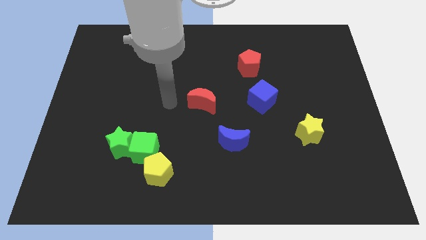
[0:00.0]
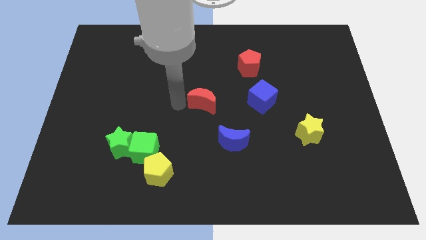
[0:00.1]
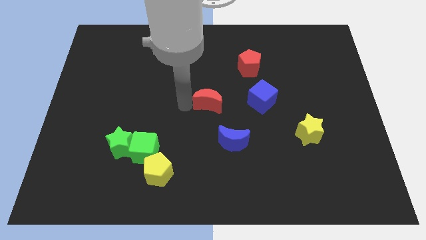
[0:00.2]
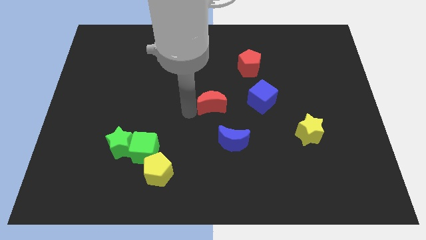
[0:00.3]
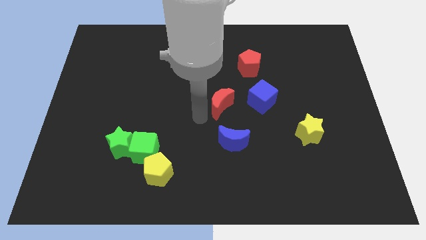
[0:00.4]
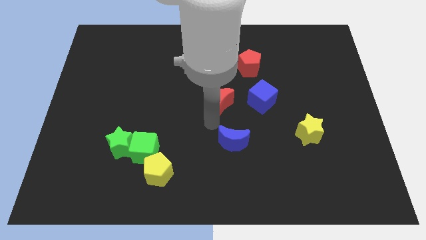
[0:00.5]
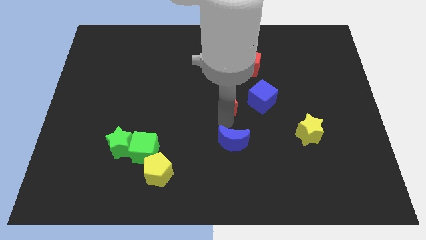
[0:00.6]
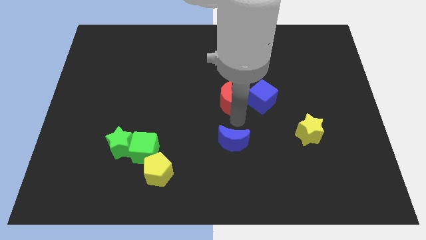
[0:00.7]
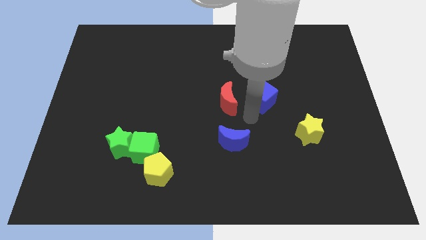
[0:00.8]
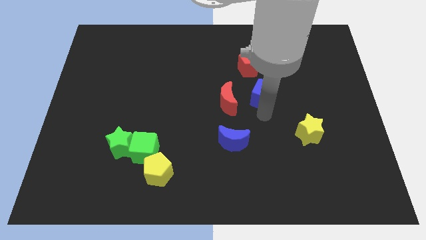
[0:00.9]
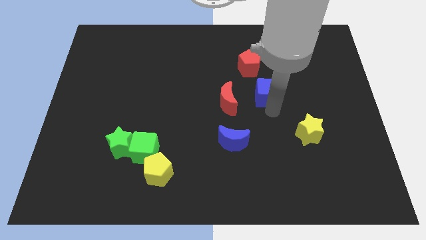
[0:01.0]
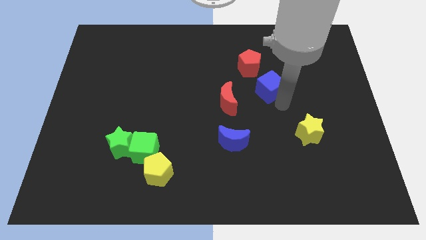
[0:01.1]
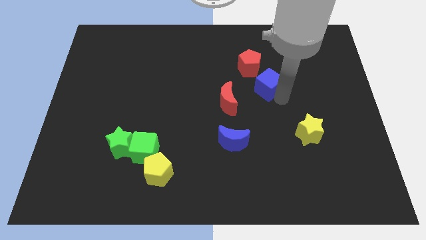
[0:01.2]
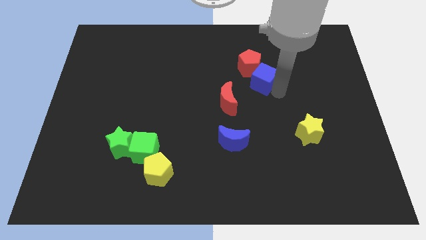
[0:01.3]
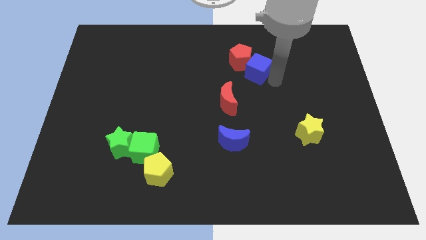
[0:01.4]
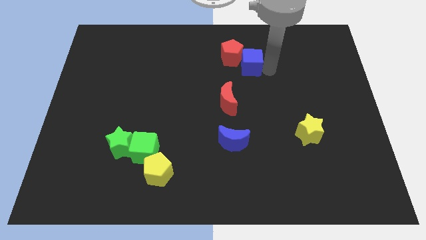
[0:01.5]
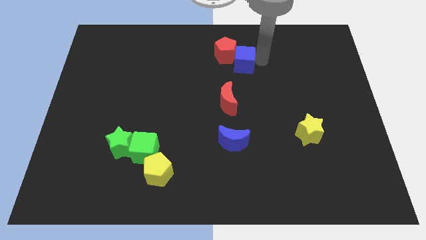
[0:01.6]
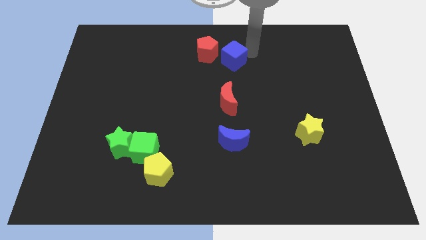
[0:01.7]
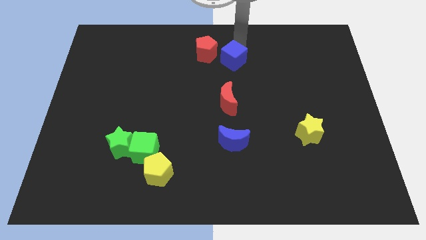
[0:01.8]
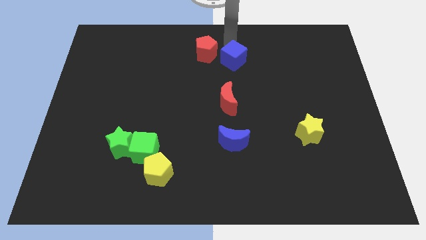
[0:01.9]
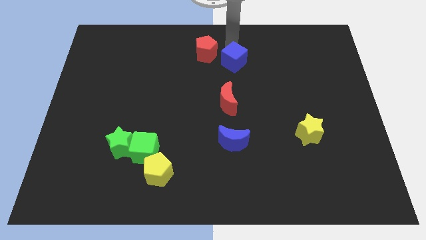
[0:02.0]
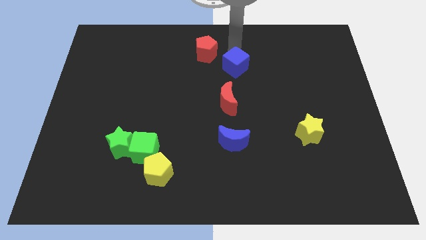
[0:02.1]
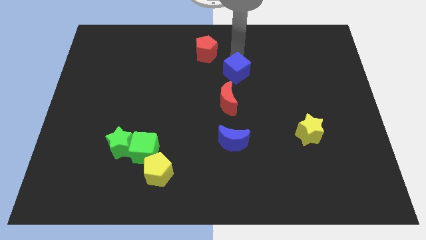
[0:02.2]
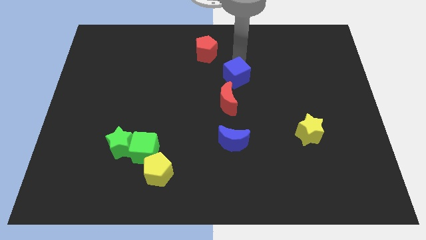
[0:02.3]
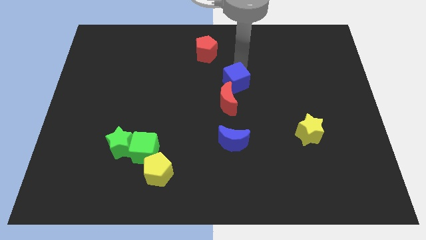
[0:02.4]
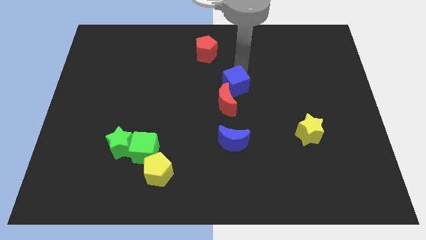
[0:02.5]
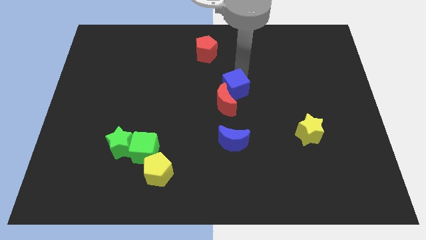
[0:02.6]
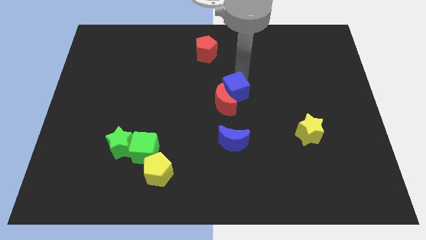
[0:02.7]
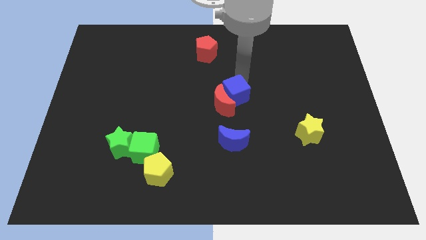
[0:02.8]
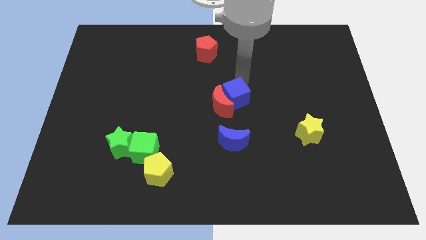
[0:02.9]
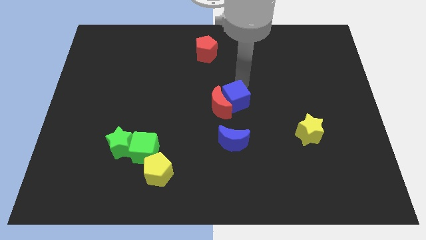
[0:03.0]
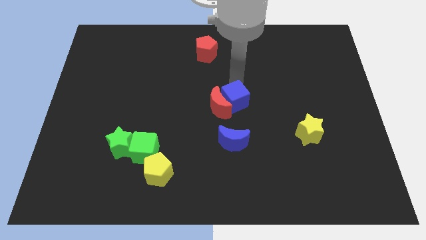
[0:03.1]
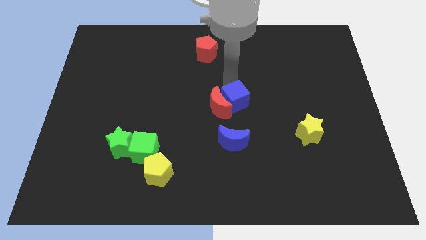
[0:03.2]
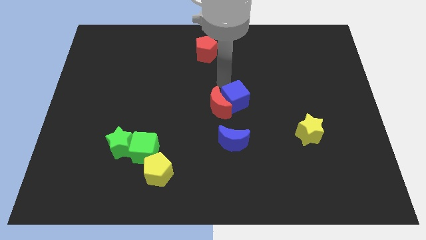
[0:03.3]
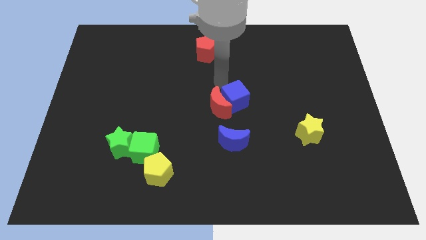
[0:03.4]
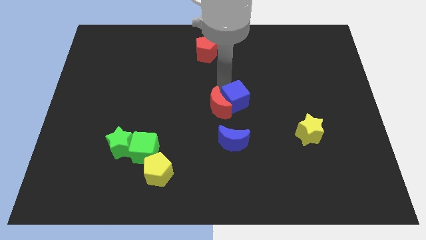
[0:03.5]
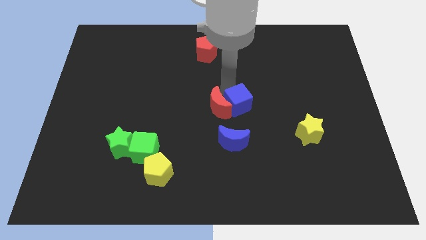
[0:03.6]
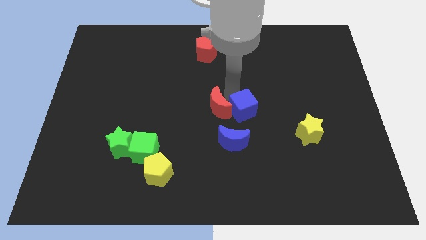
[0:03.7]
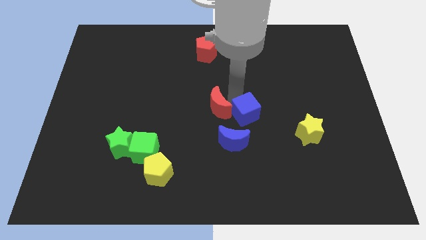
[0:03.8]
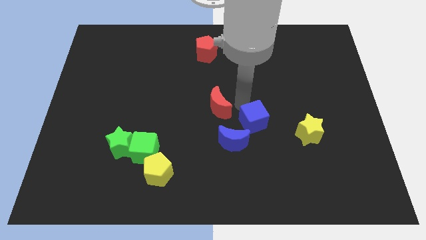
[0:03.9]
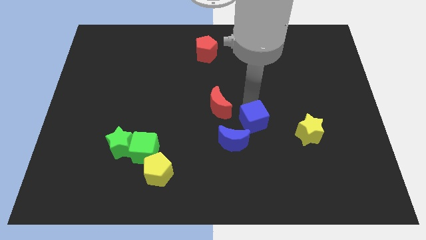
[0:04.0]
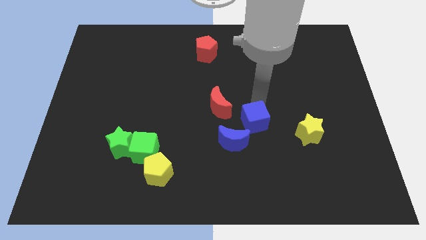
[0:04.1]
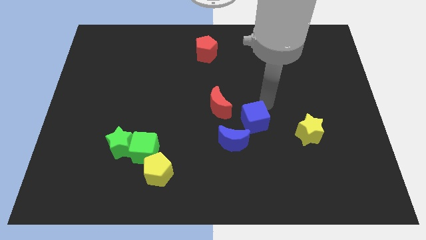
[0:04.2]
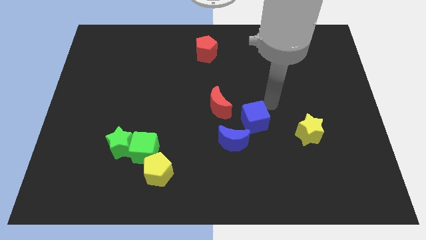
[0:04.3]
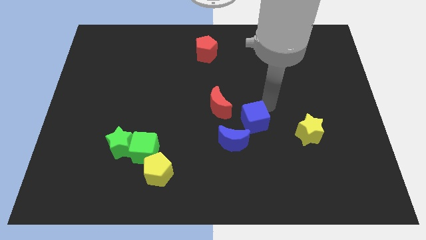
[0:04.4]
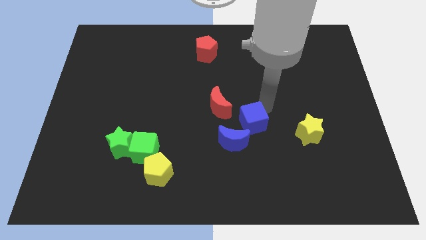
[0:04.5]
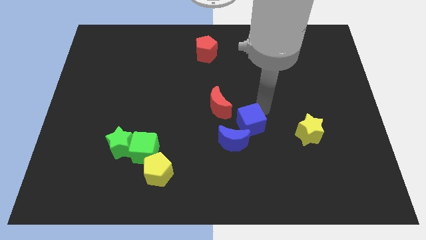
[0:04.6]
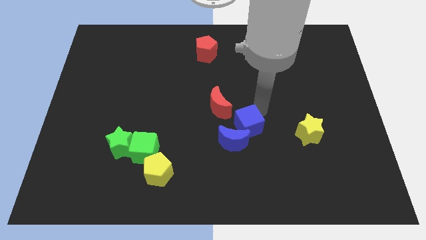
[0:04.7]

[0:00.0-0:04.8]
push the blue cube towards the blue moon

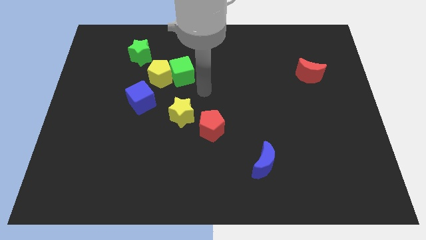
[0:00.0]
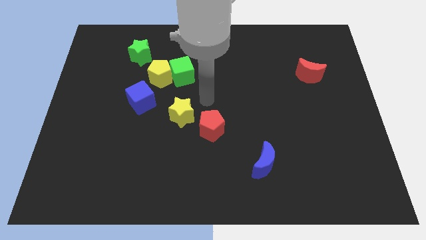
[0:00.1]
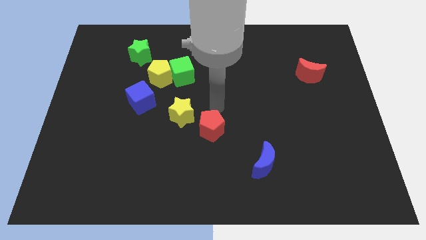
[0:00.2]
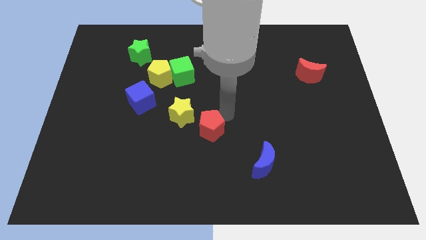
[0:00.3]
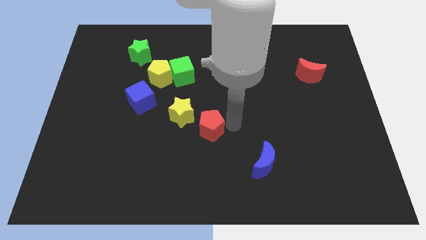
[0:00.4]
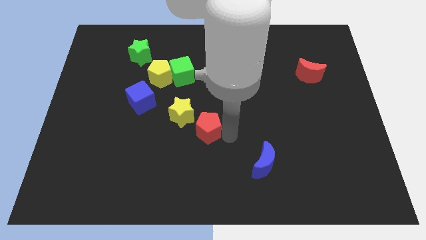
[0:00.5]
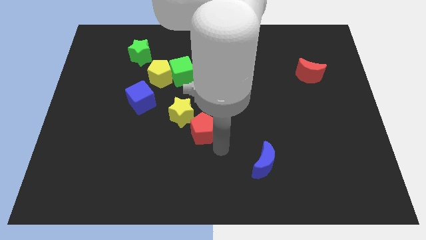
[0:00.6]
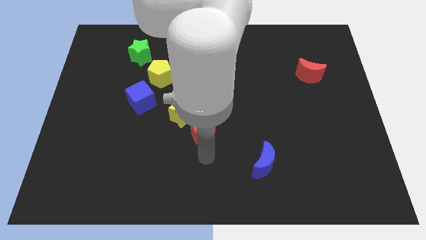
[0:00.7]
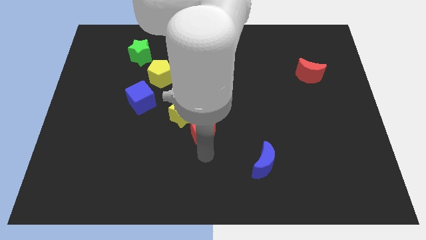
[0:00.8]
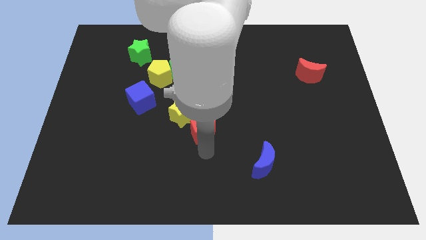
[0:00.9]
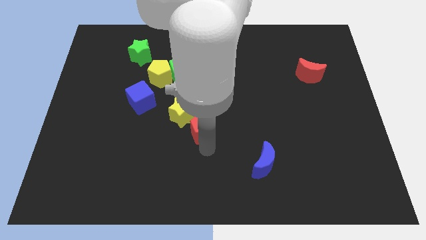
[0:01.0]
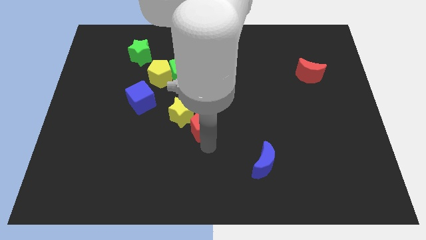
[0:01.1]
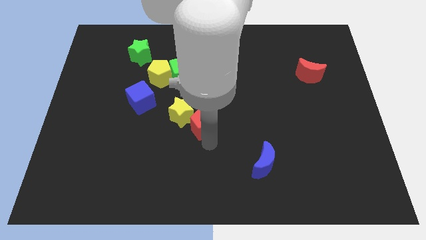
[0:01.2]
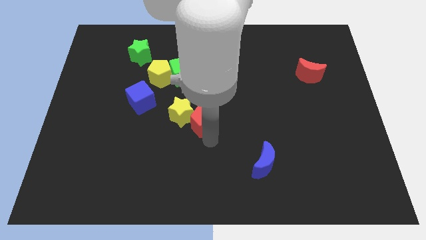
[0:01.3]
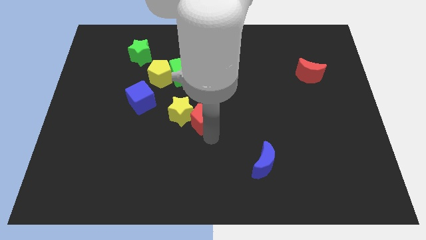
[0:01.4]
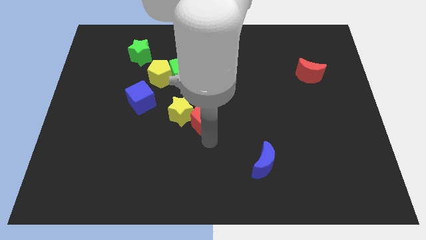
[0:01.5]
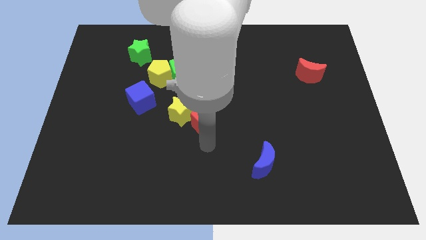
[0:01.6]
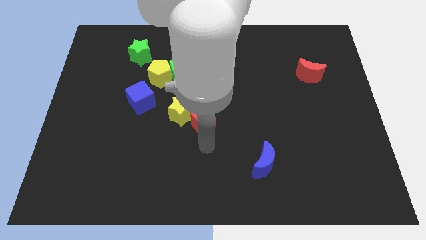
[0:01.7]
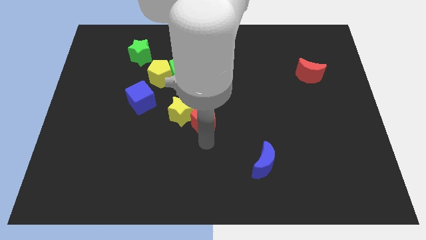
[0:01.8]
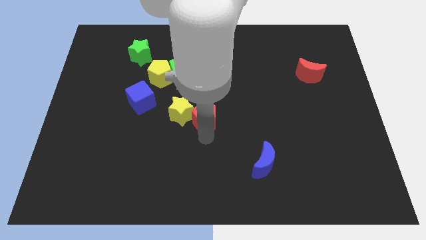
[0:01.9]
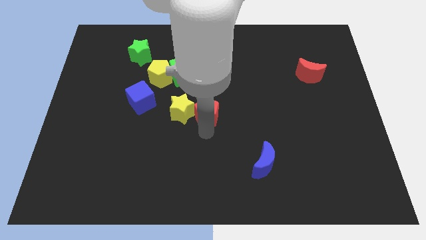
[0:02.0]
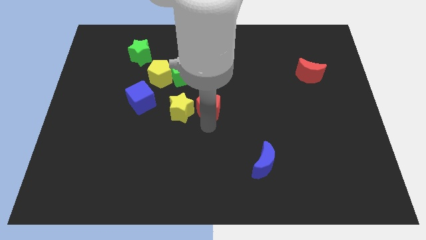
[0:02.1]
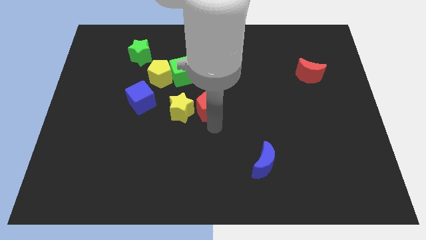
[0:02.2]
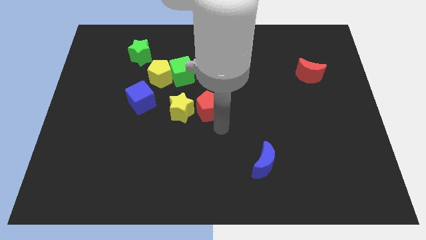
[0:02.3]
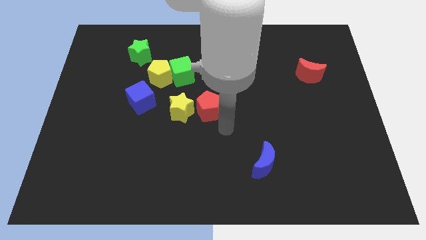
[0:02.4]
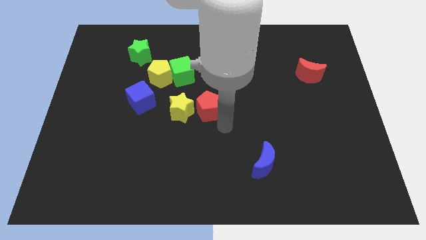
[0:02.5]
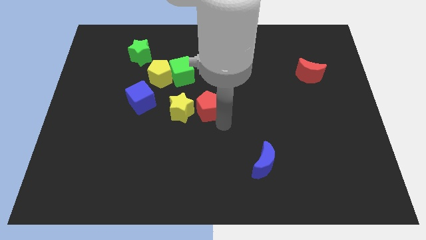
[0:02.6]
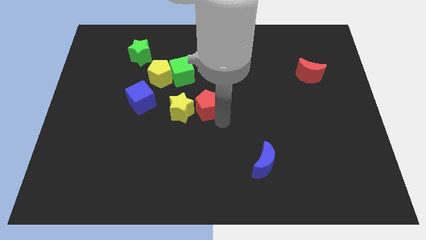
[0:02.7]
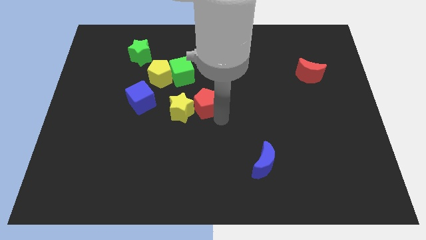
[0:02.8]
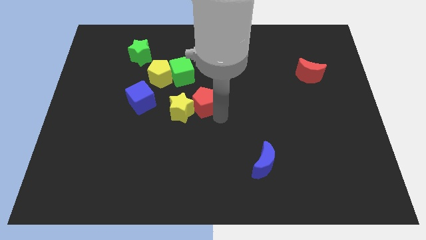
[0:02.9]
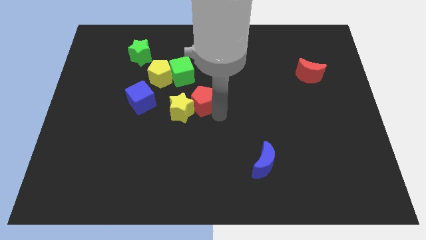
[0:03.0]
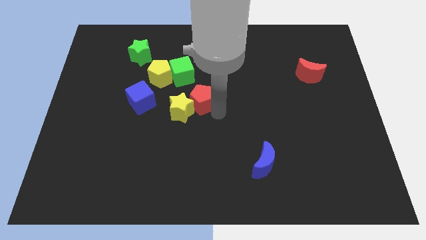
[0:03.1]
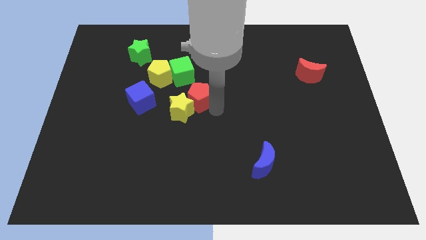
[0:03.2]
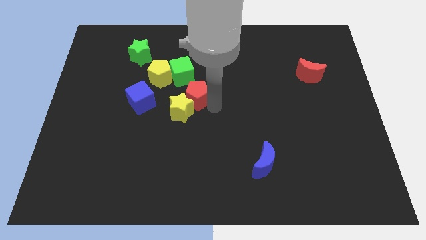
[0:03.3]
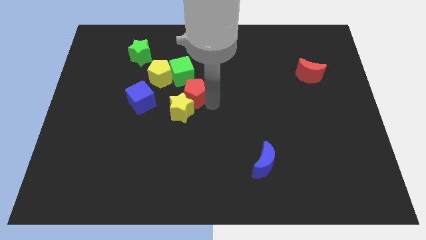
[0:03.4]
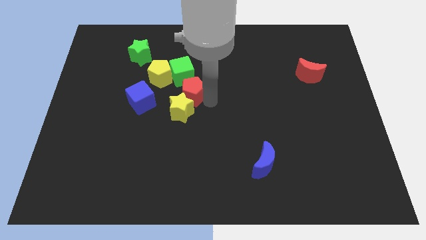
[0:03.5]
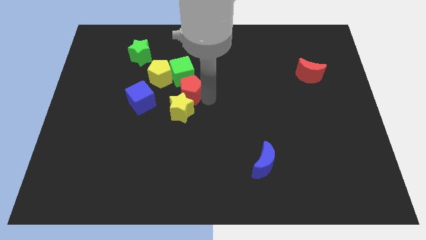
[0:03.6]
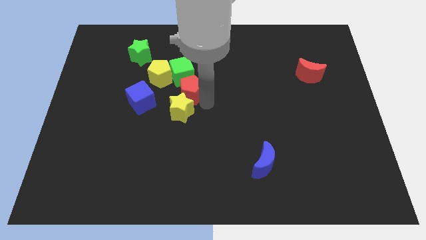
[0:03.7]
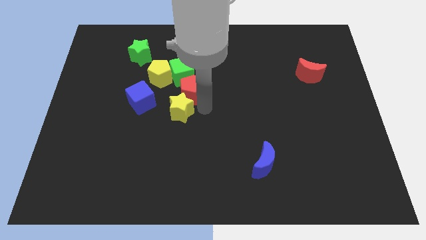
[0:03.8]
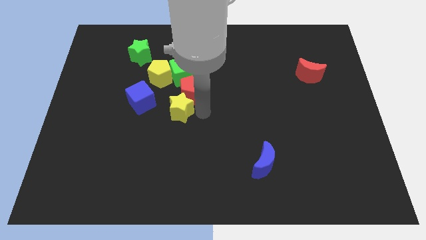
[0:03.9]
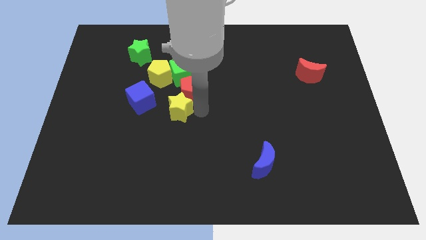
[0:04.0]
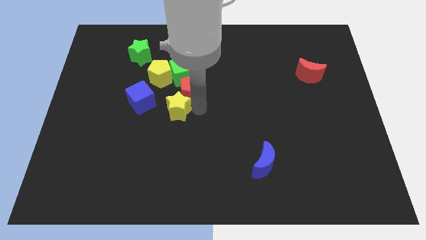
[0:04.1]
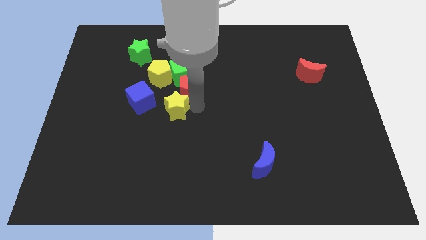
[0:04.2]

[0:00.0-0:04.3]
put the red pentagon close to the green cube
